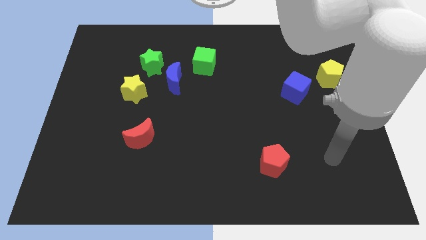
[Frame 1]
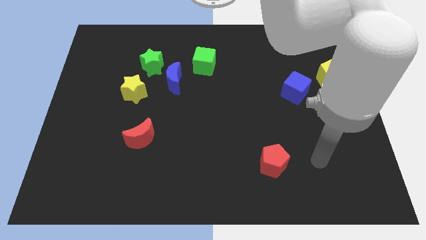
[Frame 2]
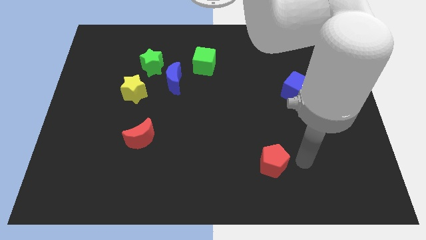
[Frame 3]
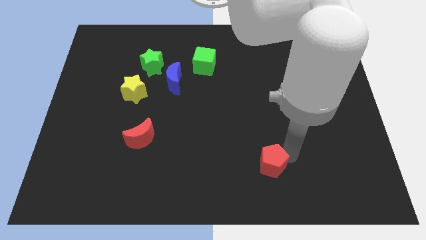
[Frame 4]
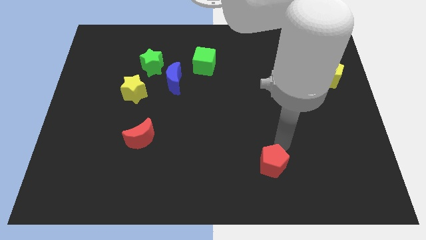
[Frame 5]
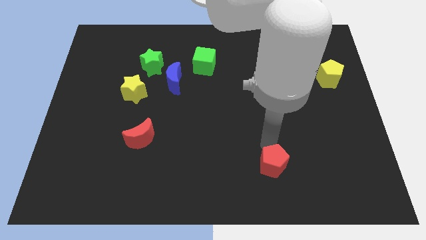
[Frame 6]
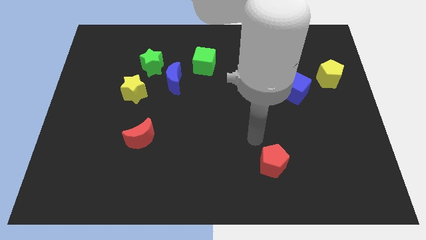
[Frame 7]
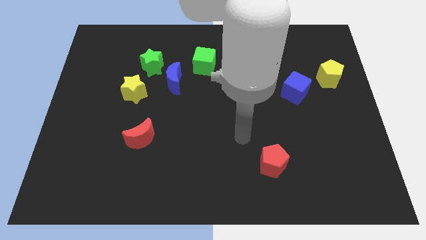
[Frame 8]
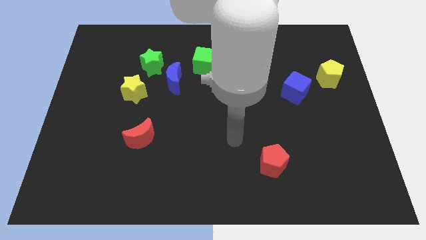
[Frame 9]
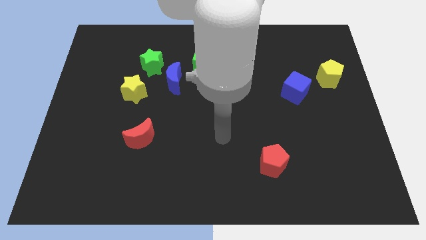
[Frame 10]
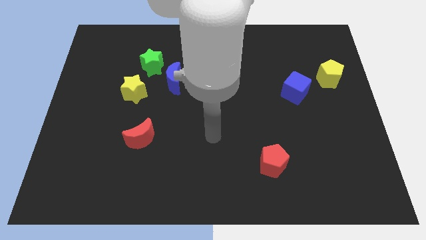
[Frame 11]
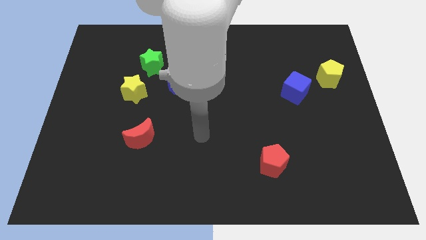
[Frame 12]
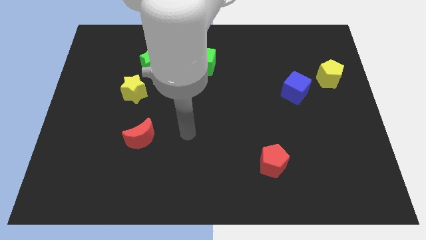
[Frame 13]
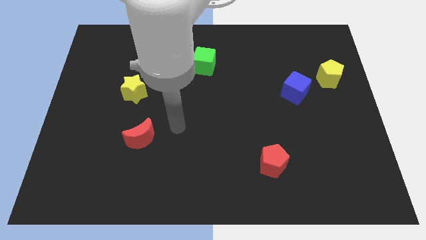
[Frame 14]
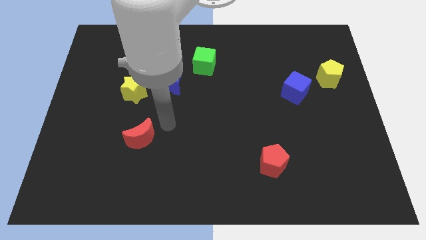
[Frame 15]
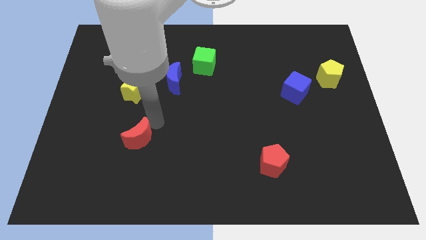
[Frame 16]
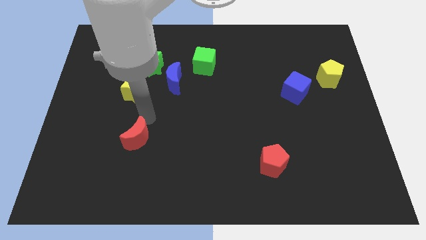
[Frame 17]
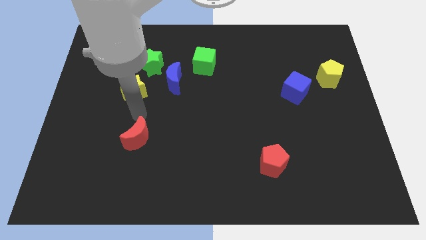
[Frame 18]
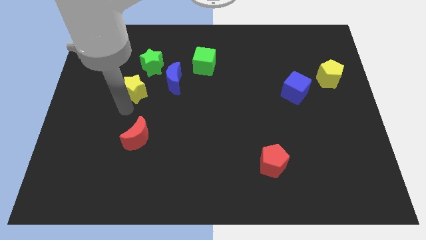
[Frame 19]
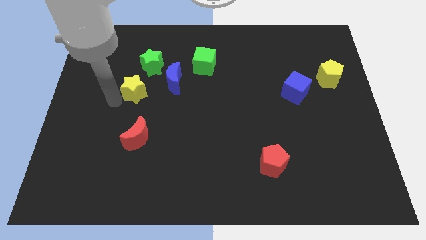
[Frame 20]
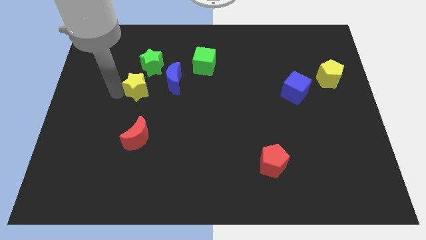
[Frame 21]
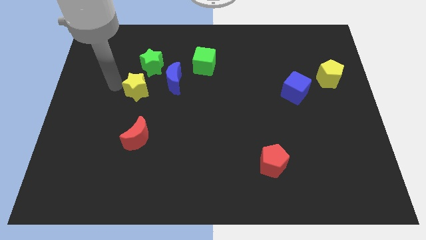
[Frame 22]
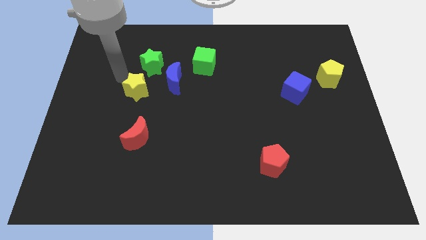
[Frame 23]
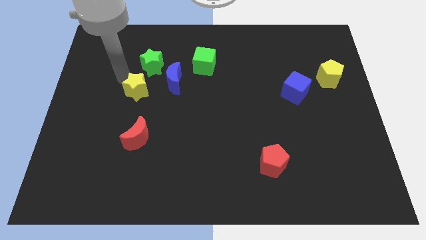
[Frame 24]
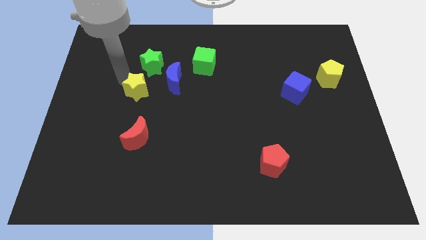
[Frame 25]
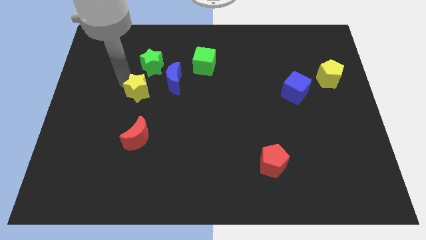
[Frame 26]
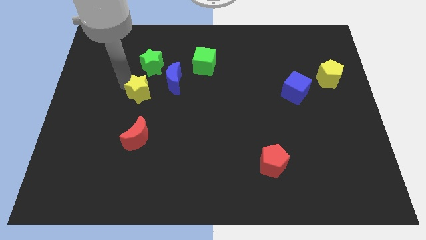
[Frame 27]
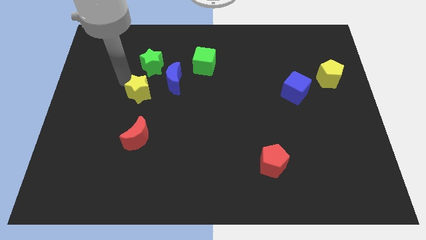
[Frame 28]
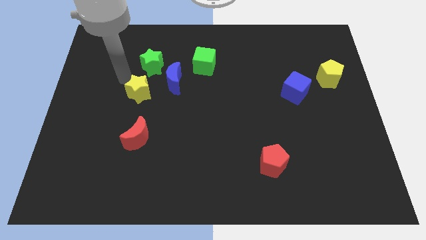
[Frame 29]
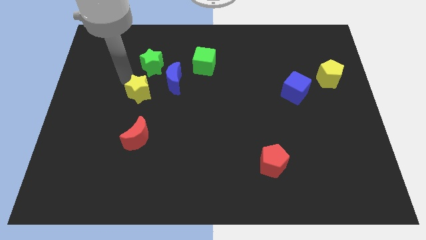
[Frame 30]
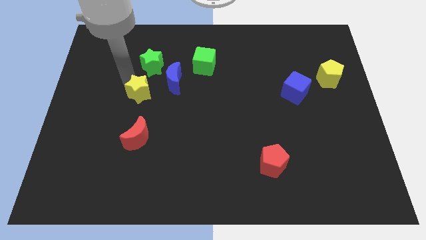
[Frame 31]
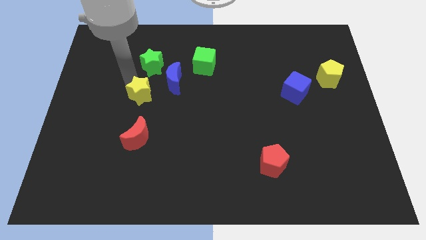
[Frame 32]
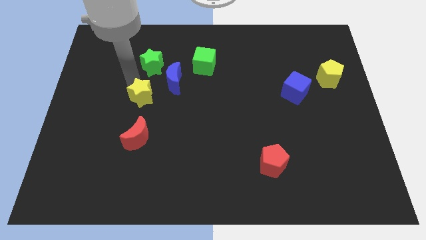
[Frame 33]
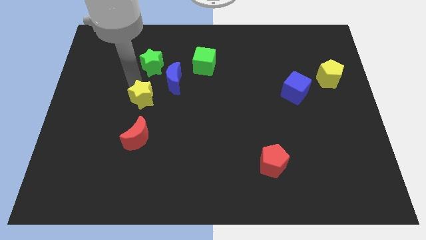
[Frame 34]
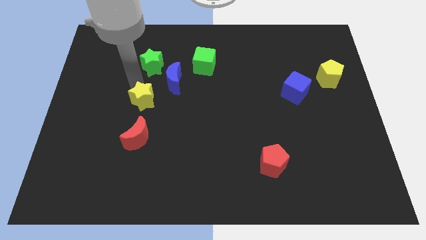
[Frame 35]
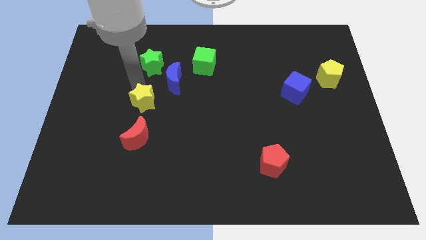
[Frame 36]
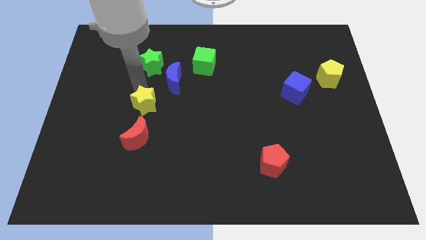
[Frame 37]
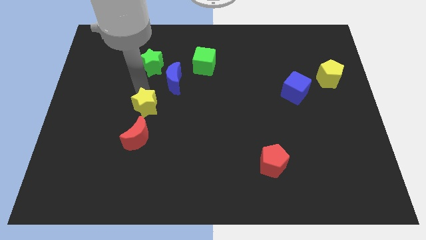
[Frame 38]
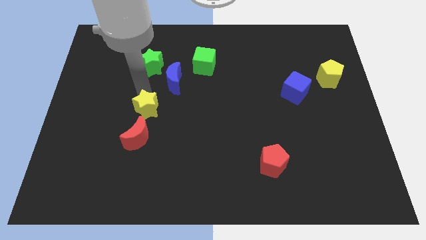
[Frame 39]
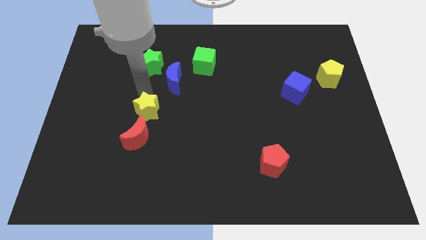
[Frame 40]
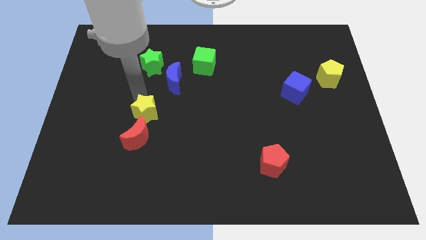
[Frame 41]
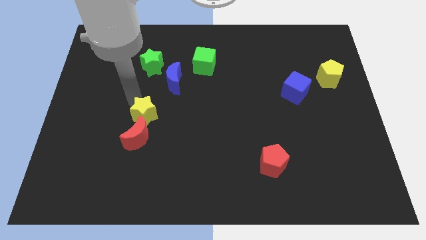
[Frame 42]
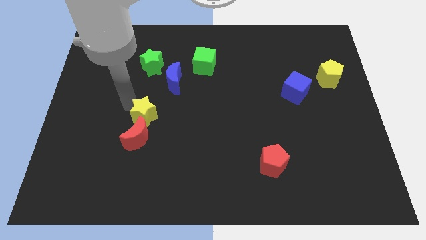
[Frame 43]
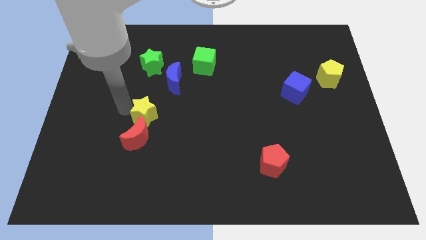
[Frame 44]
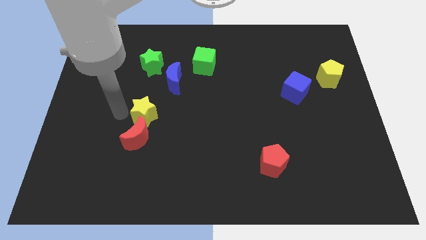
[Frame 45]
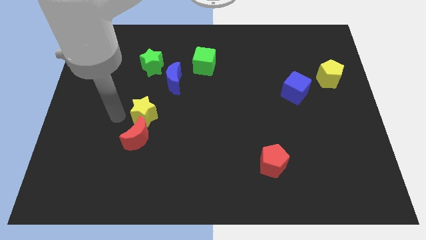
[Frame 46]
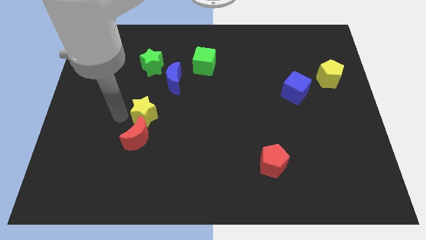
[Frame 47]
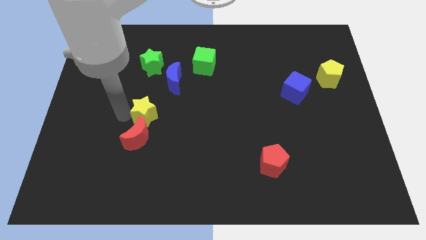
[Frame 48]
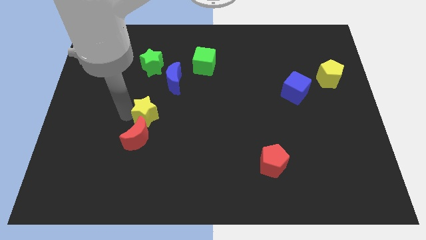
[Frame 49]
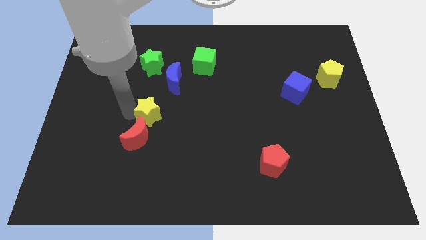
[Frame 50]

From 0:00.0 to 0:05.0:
move the yellow star below the blue moon
